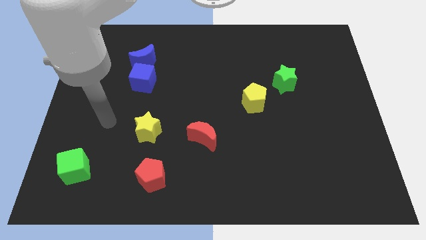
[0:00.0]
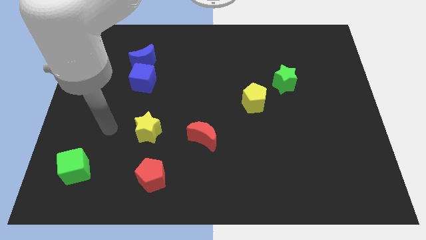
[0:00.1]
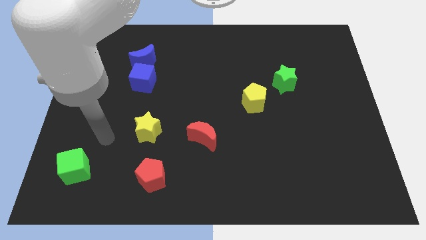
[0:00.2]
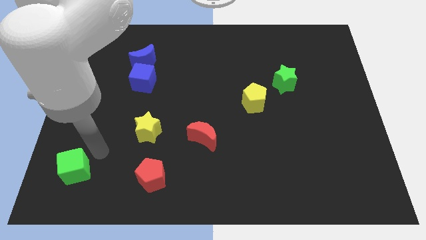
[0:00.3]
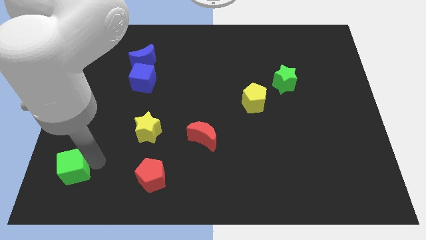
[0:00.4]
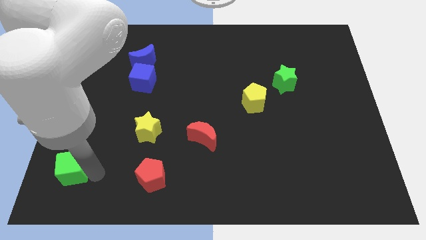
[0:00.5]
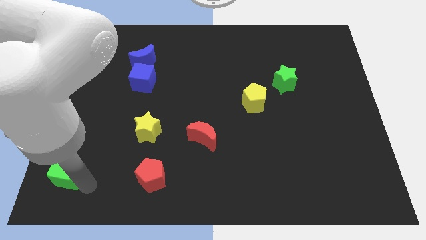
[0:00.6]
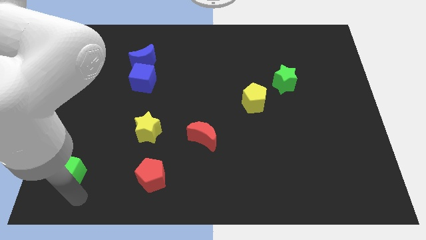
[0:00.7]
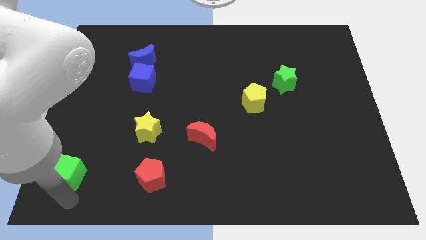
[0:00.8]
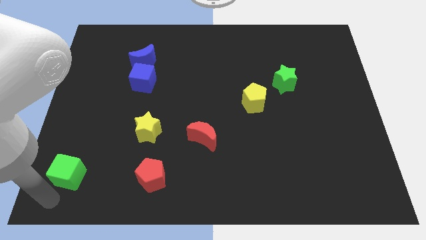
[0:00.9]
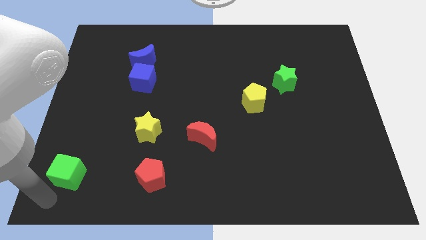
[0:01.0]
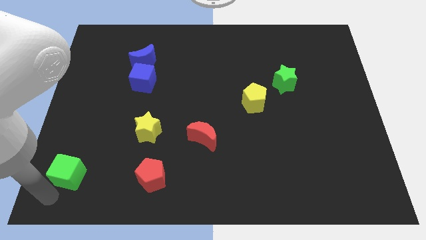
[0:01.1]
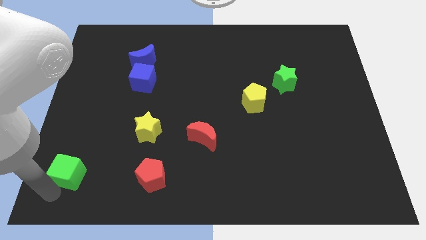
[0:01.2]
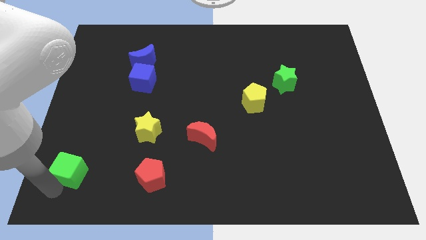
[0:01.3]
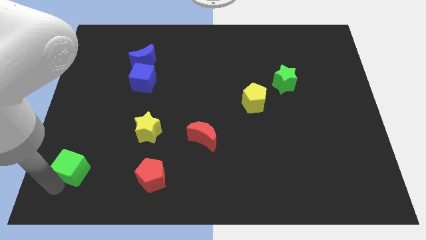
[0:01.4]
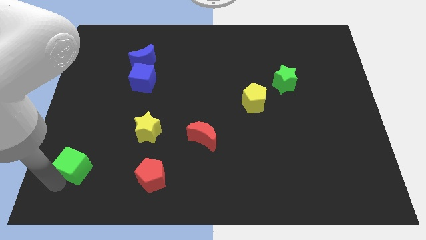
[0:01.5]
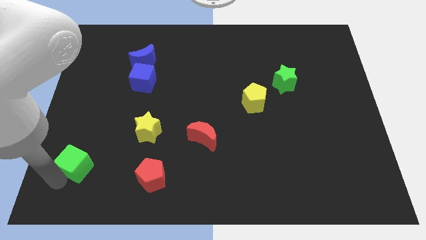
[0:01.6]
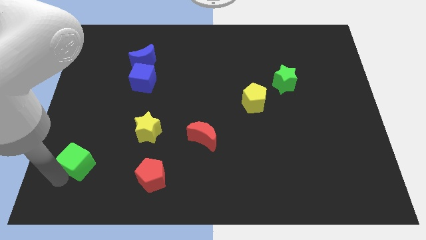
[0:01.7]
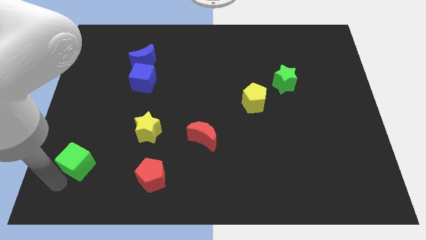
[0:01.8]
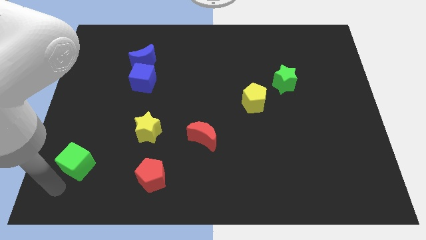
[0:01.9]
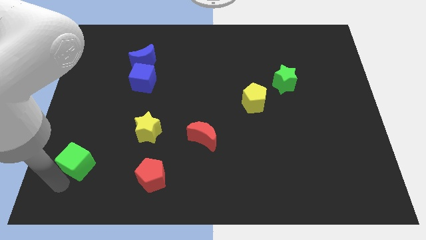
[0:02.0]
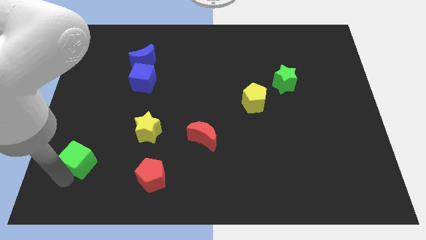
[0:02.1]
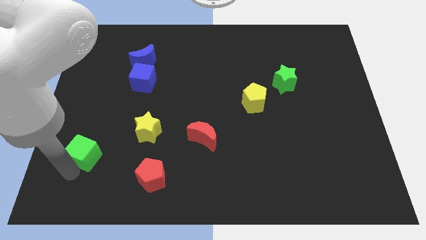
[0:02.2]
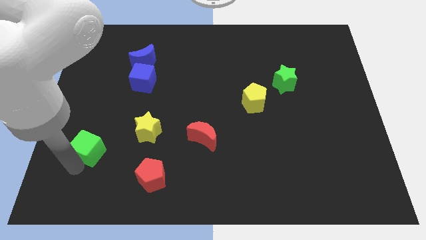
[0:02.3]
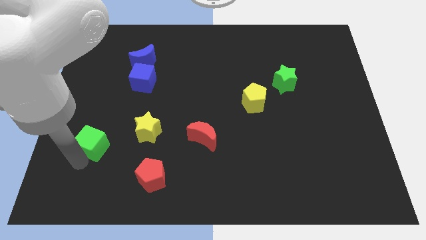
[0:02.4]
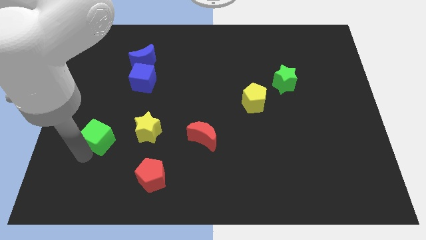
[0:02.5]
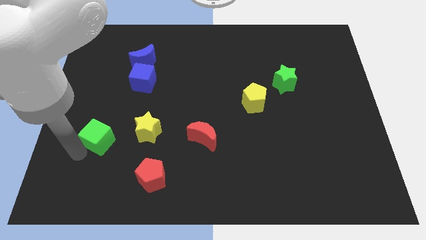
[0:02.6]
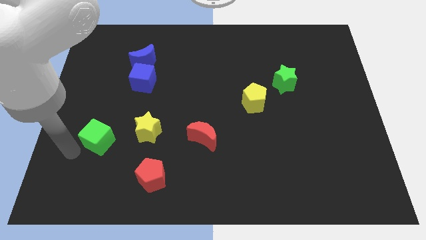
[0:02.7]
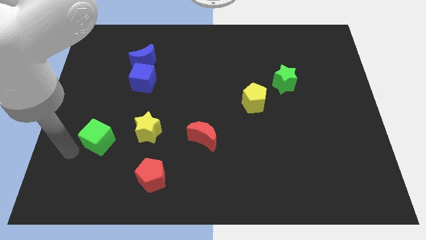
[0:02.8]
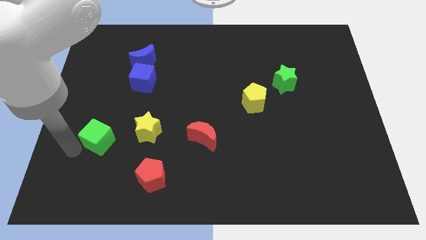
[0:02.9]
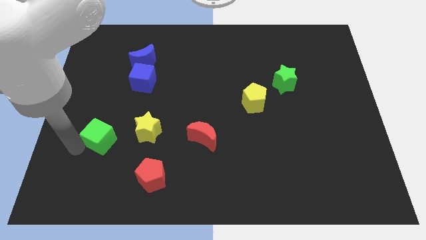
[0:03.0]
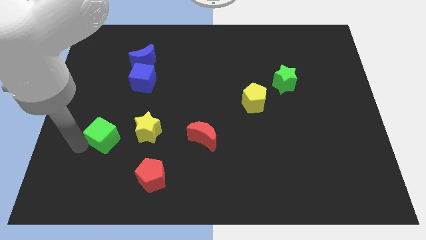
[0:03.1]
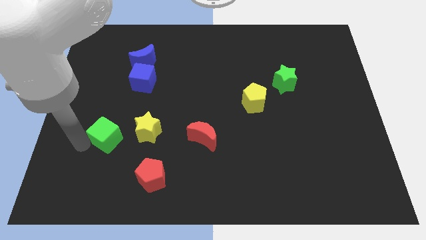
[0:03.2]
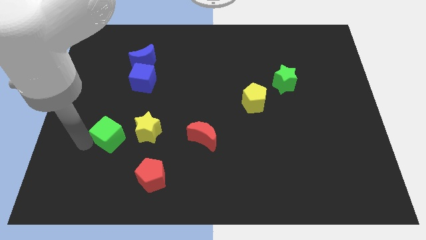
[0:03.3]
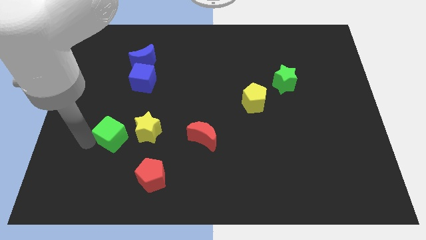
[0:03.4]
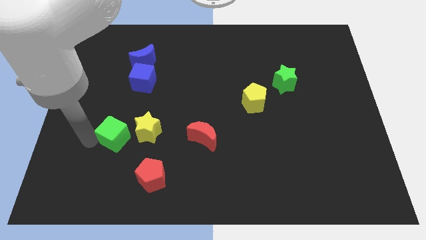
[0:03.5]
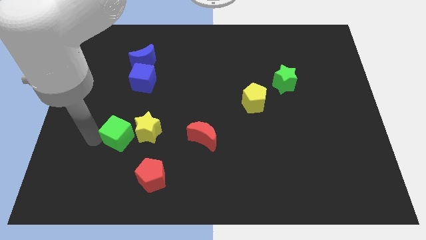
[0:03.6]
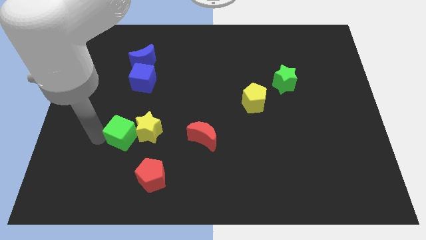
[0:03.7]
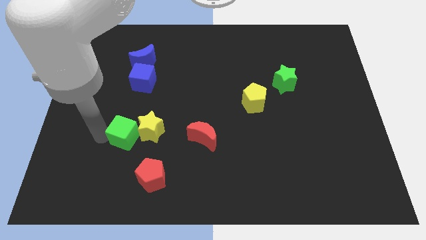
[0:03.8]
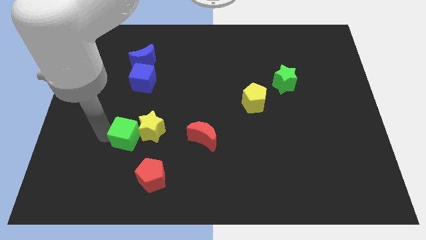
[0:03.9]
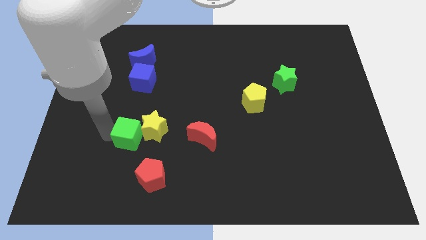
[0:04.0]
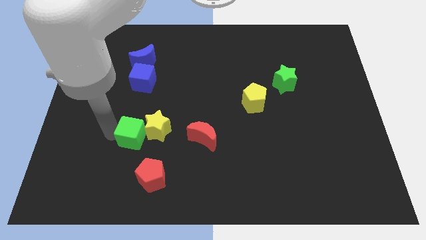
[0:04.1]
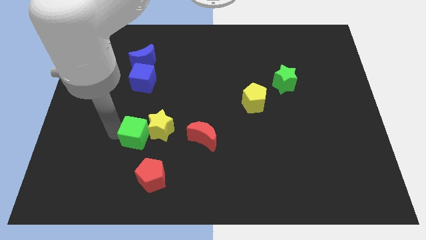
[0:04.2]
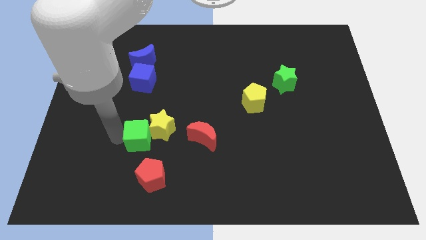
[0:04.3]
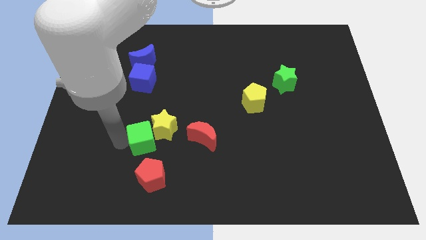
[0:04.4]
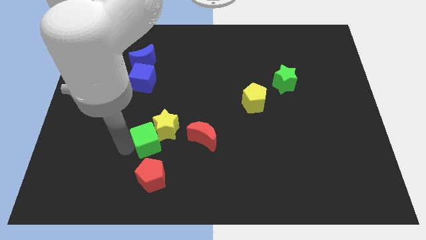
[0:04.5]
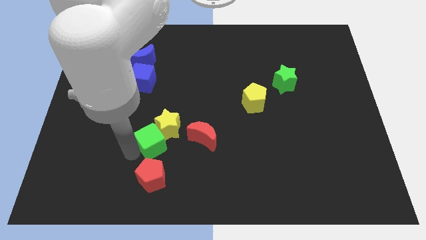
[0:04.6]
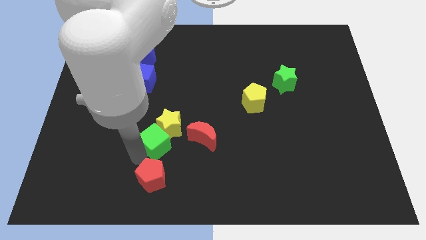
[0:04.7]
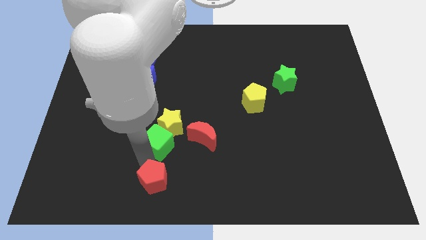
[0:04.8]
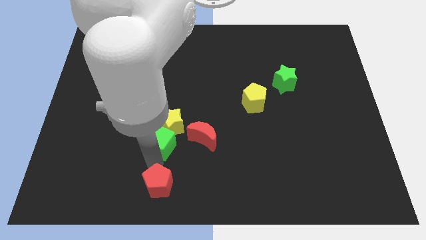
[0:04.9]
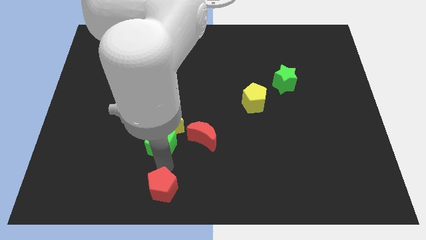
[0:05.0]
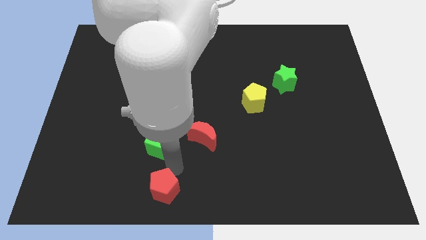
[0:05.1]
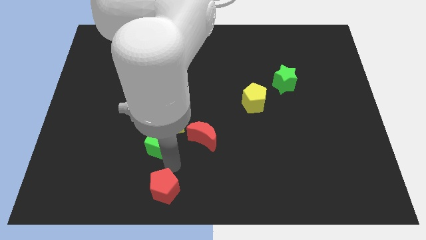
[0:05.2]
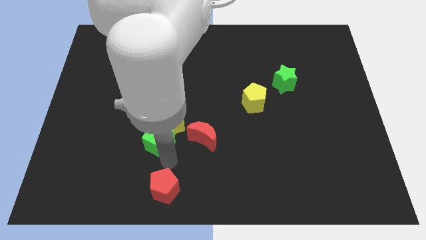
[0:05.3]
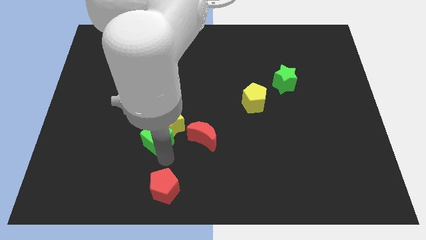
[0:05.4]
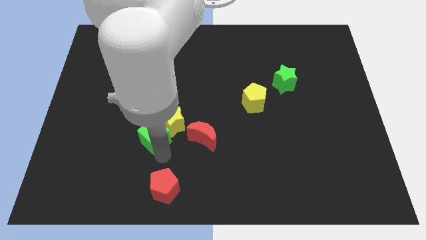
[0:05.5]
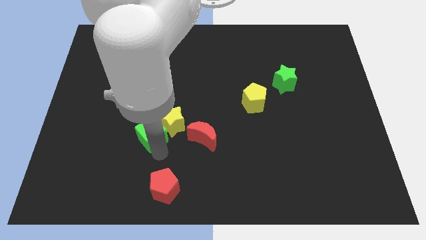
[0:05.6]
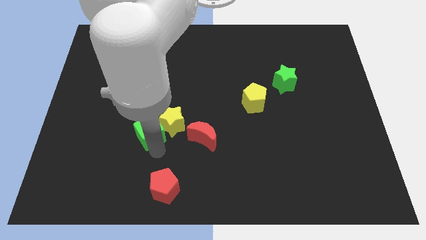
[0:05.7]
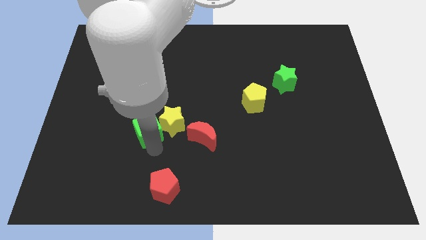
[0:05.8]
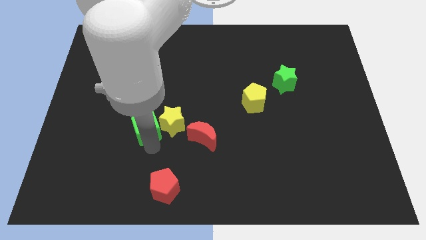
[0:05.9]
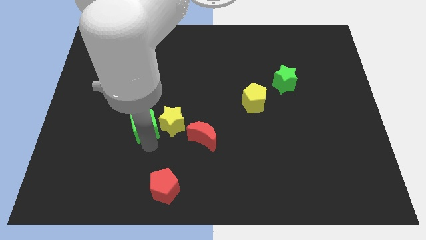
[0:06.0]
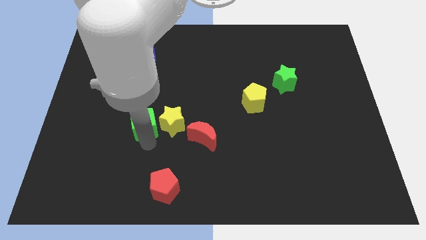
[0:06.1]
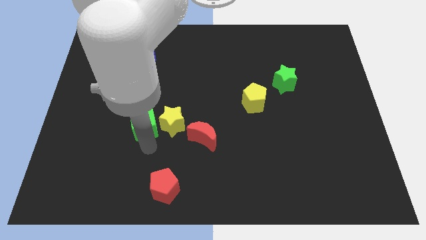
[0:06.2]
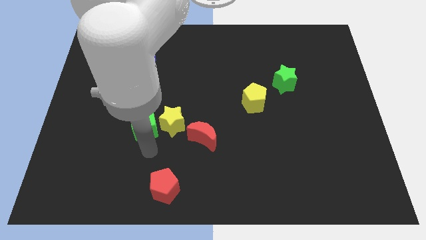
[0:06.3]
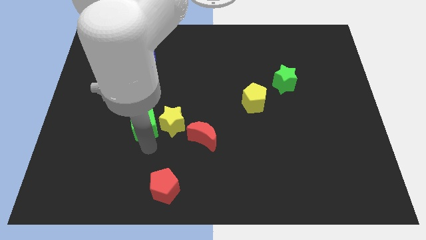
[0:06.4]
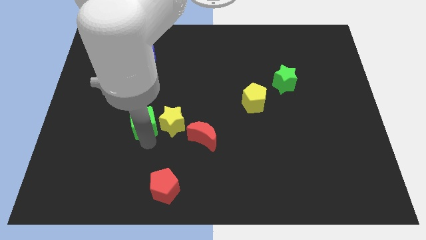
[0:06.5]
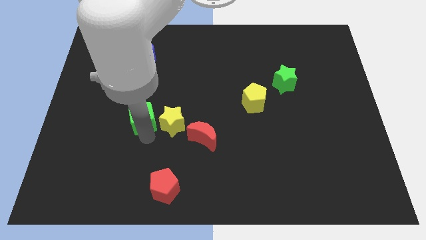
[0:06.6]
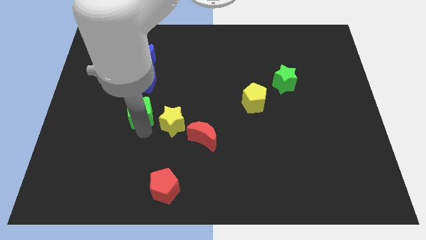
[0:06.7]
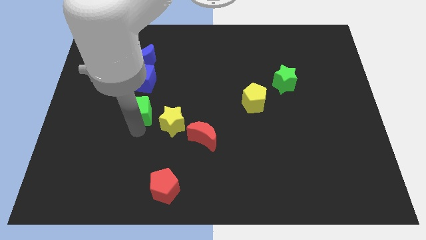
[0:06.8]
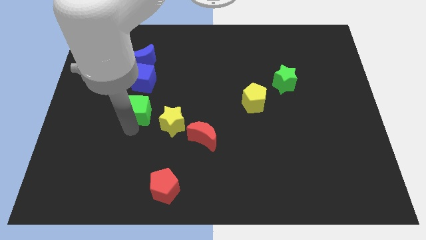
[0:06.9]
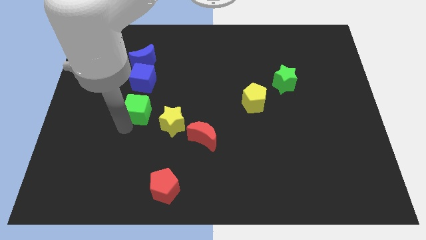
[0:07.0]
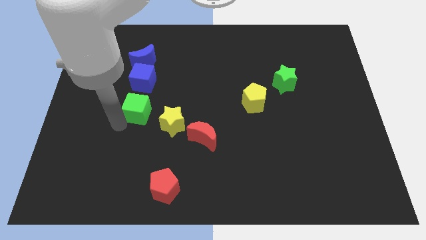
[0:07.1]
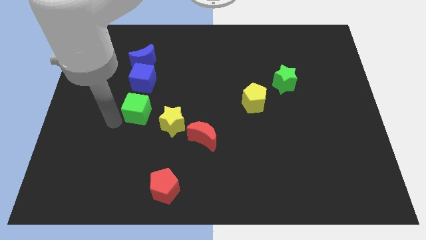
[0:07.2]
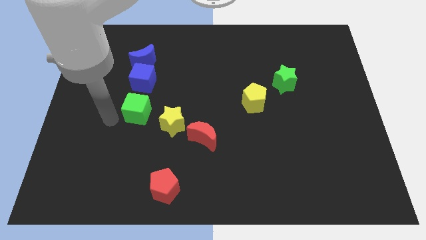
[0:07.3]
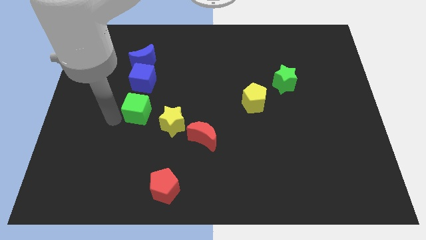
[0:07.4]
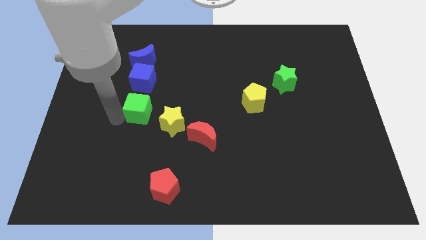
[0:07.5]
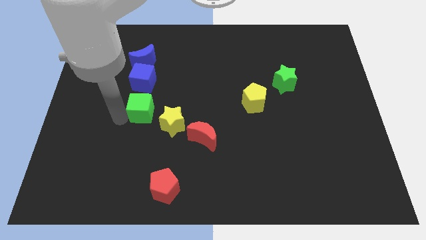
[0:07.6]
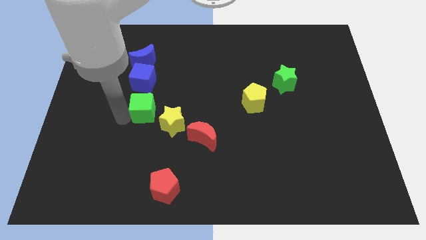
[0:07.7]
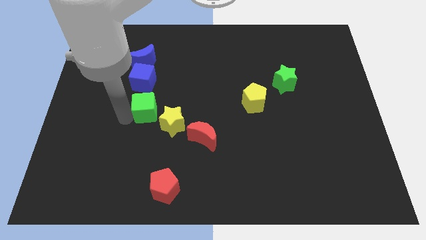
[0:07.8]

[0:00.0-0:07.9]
push the green cube upwards and then to the right
